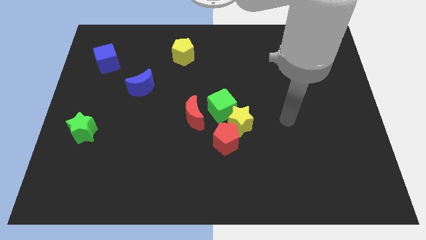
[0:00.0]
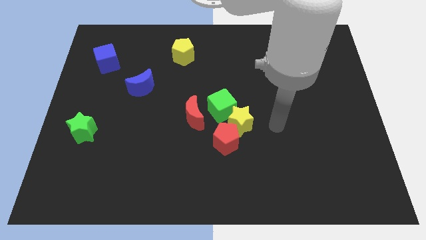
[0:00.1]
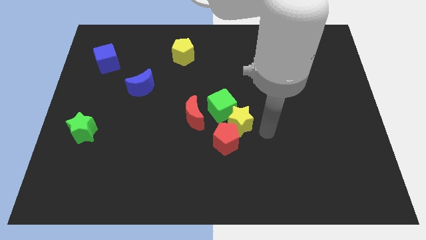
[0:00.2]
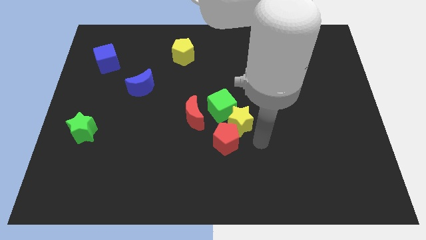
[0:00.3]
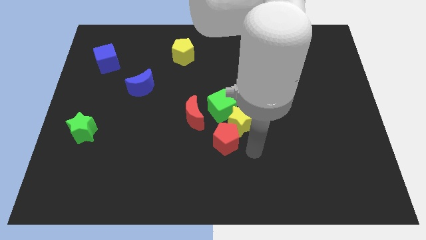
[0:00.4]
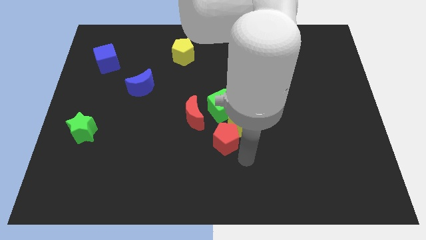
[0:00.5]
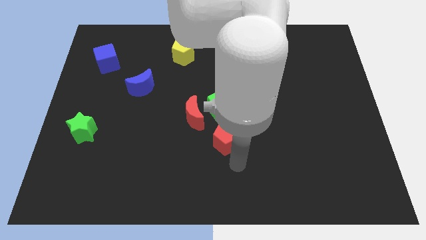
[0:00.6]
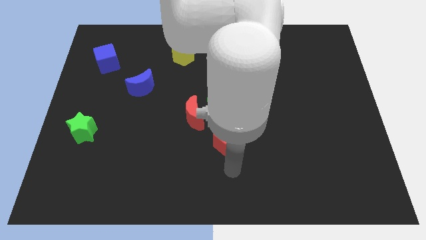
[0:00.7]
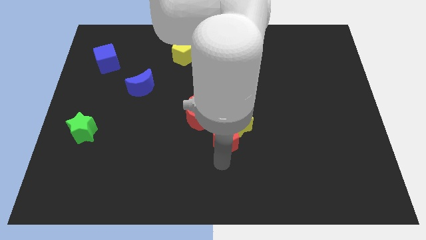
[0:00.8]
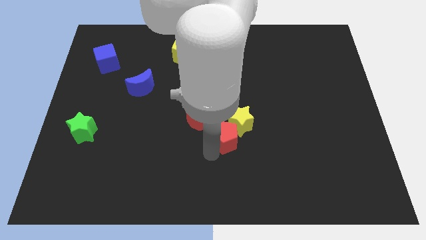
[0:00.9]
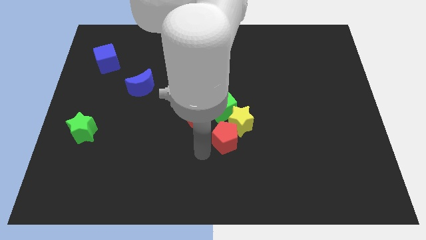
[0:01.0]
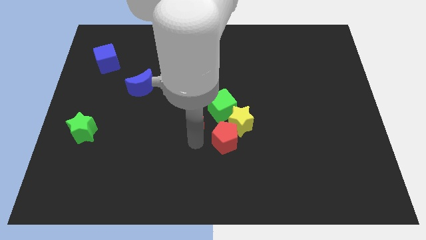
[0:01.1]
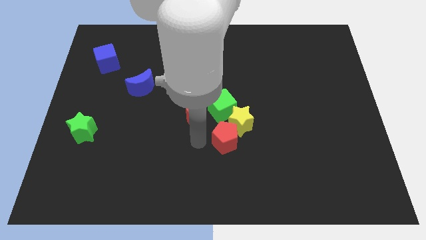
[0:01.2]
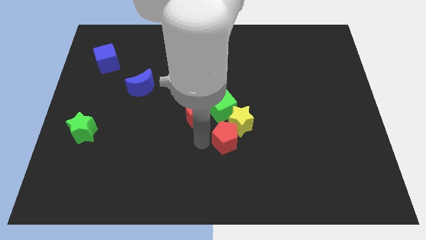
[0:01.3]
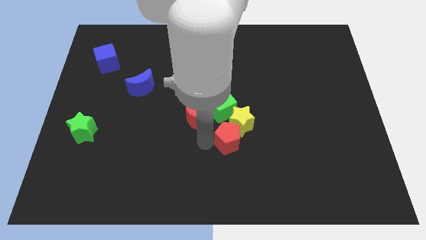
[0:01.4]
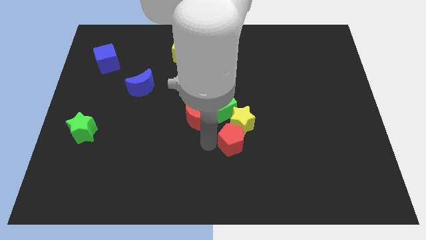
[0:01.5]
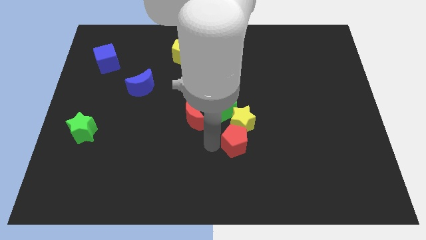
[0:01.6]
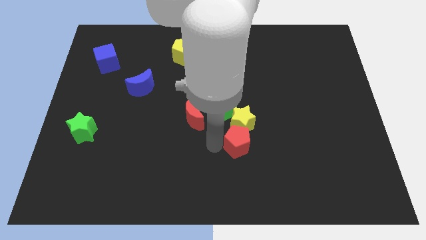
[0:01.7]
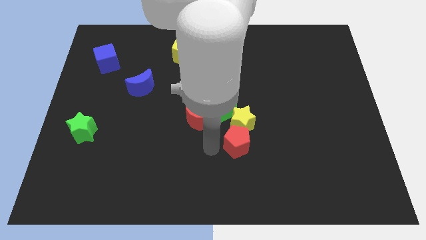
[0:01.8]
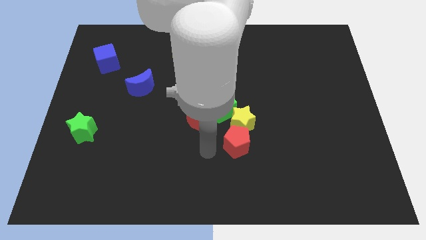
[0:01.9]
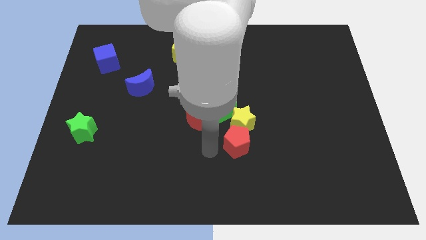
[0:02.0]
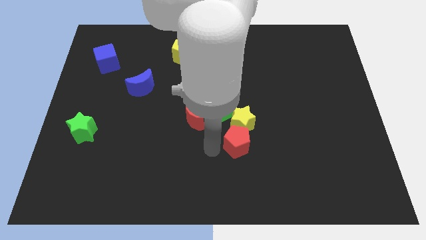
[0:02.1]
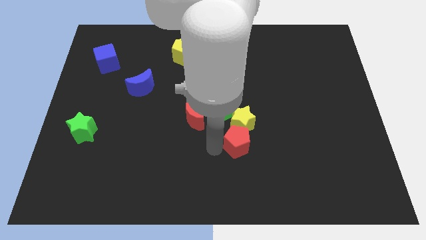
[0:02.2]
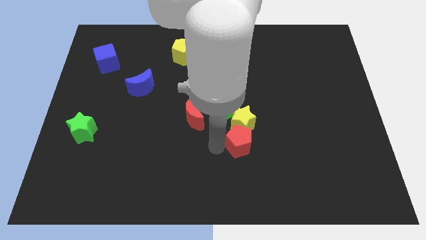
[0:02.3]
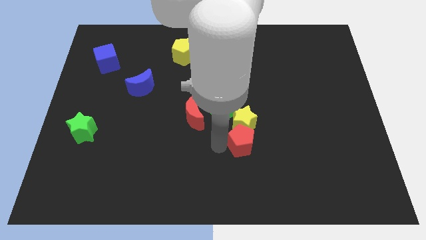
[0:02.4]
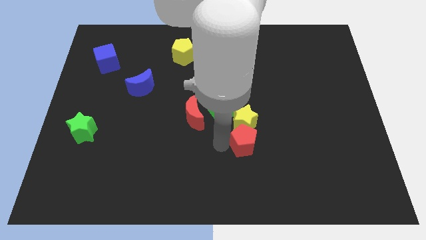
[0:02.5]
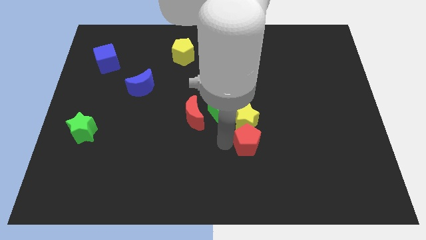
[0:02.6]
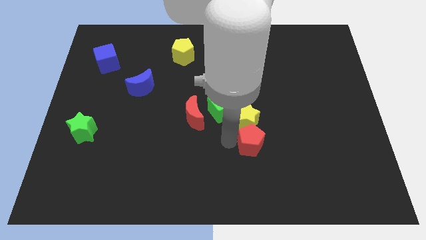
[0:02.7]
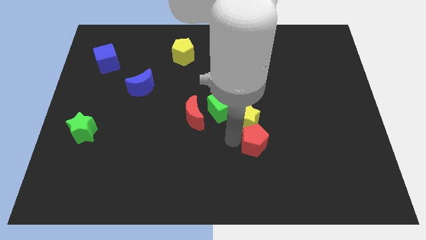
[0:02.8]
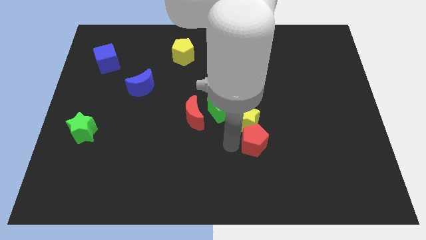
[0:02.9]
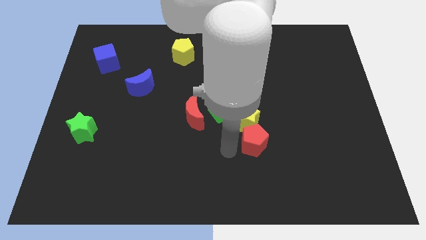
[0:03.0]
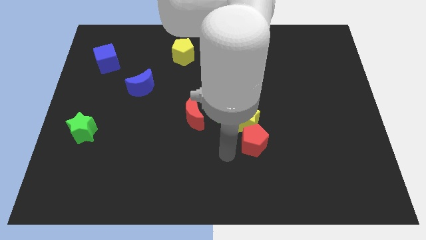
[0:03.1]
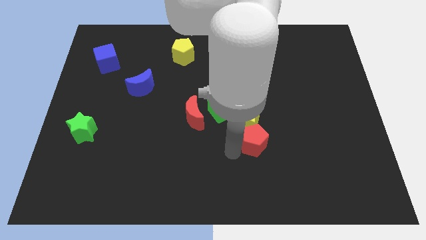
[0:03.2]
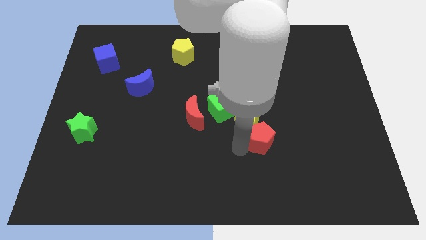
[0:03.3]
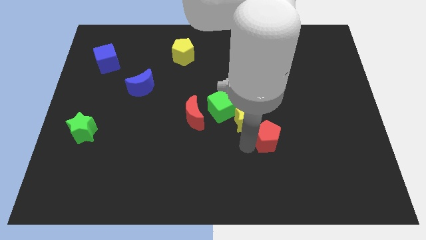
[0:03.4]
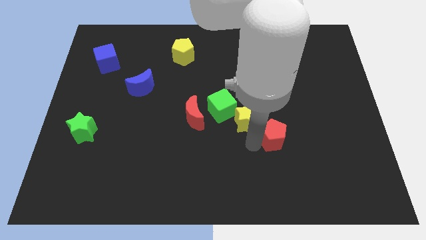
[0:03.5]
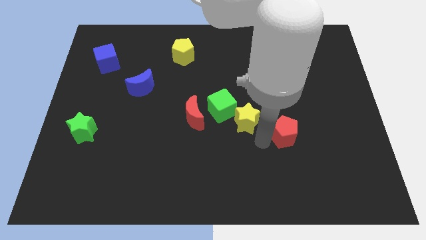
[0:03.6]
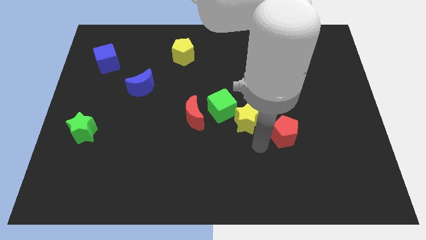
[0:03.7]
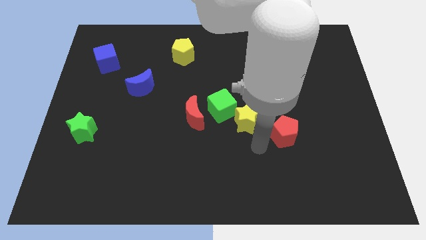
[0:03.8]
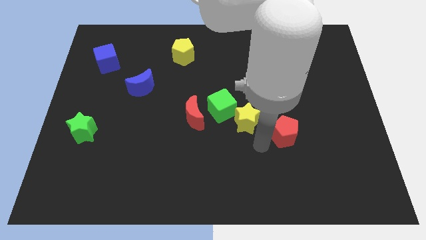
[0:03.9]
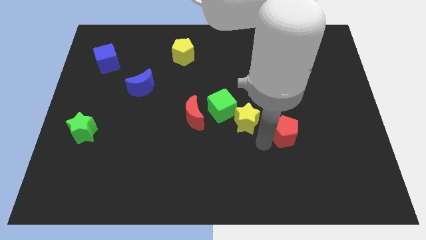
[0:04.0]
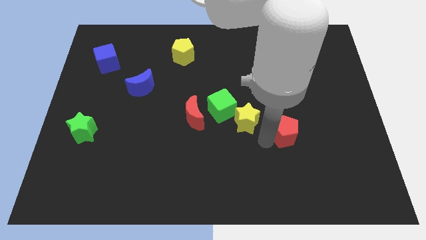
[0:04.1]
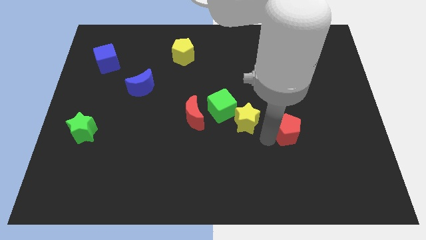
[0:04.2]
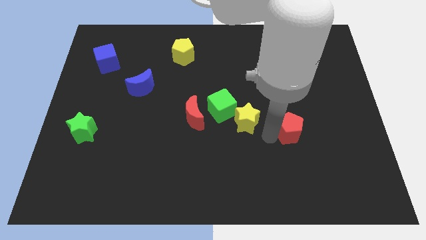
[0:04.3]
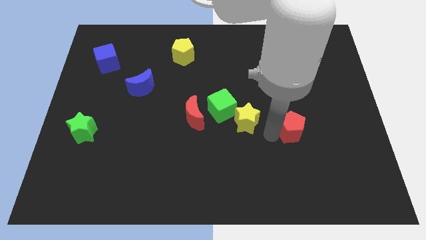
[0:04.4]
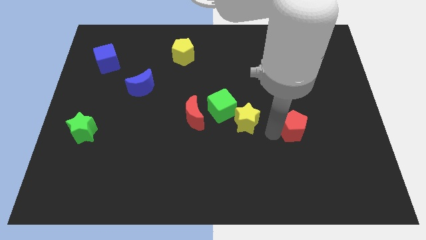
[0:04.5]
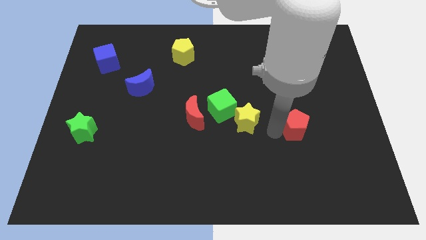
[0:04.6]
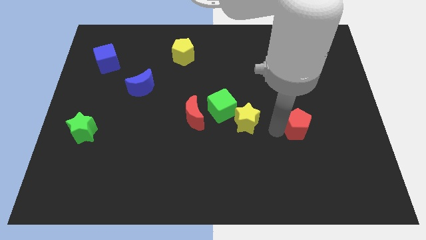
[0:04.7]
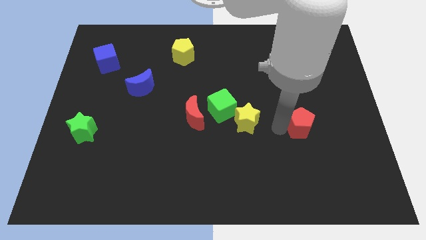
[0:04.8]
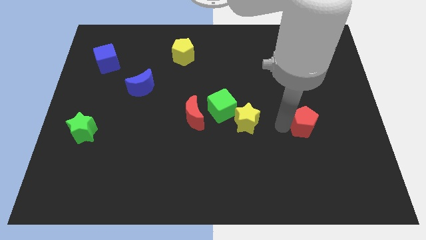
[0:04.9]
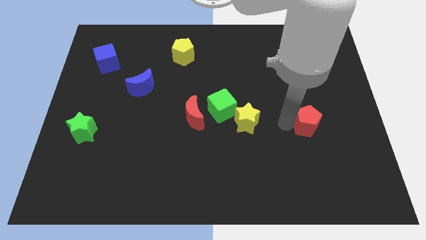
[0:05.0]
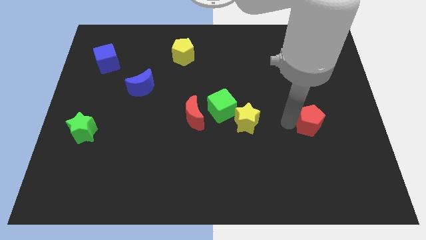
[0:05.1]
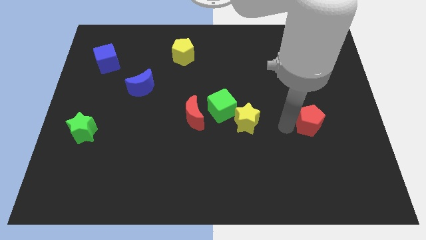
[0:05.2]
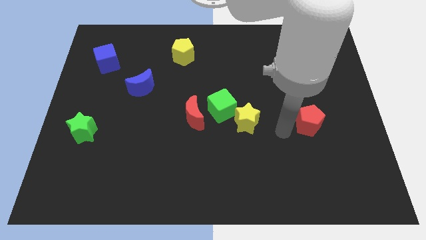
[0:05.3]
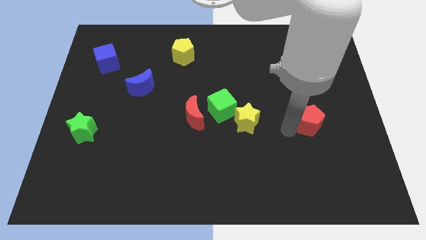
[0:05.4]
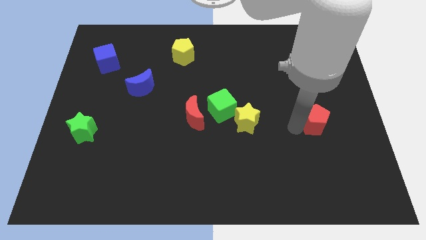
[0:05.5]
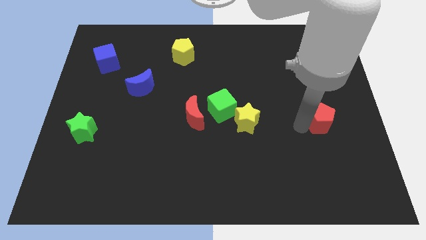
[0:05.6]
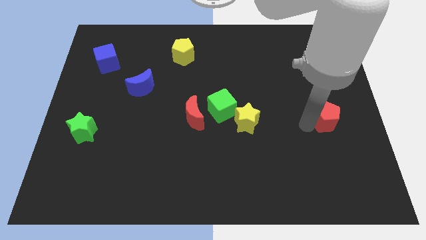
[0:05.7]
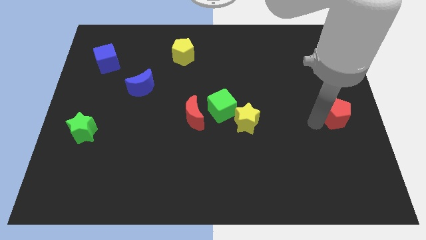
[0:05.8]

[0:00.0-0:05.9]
put the red pentagon to the center right
